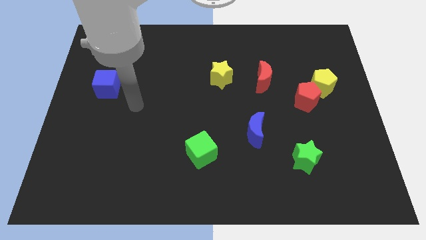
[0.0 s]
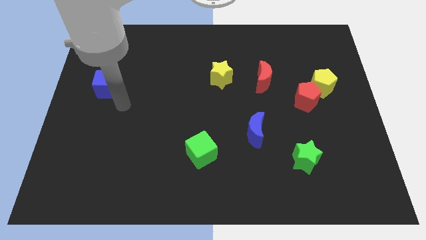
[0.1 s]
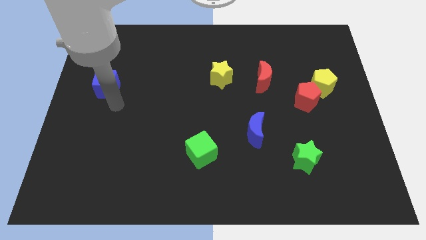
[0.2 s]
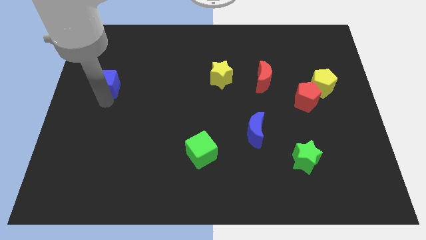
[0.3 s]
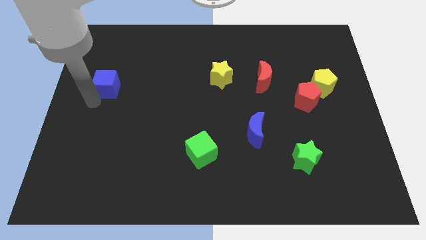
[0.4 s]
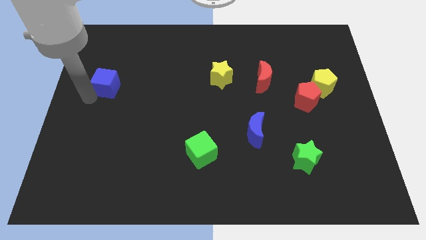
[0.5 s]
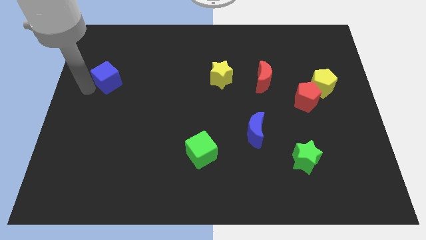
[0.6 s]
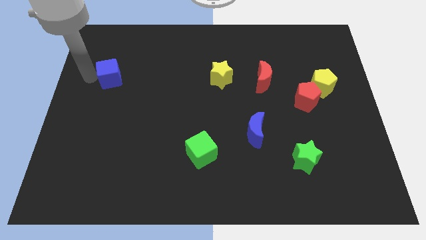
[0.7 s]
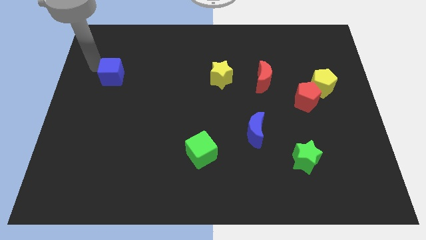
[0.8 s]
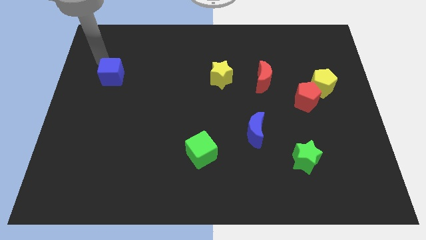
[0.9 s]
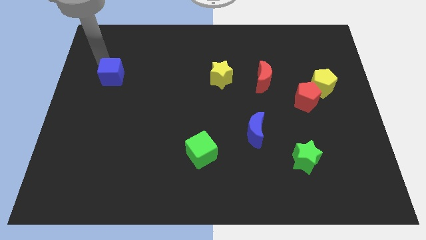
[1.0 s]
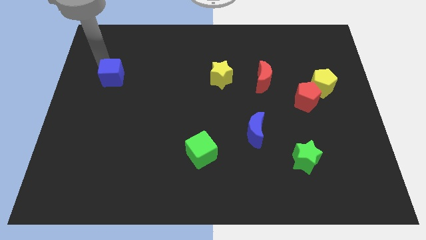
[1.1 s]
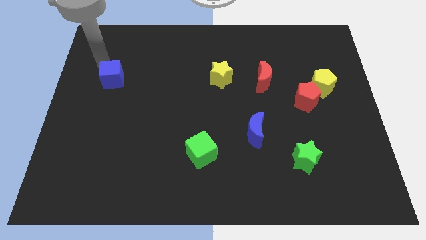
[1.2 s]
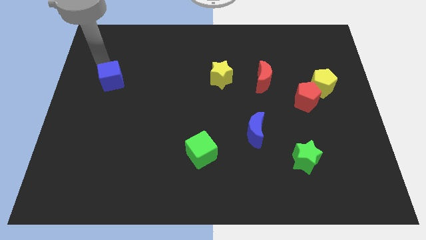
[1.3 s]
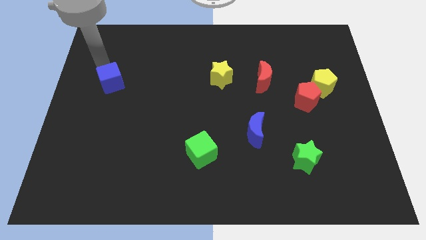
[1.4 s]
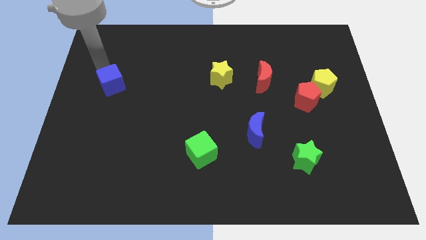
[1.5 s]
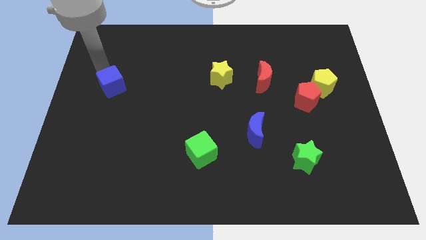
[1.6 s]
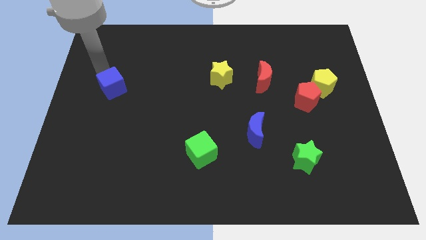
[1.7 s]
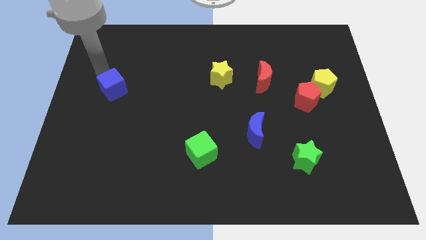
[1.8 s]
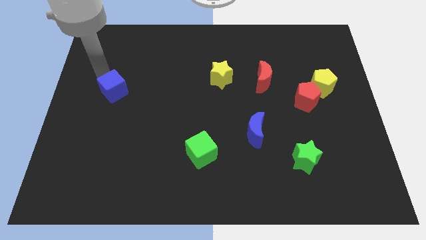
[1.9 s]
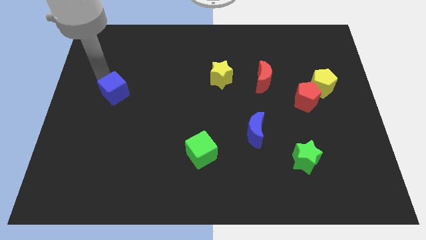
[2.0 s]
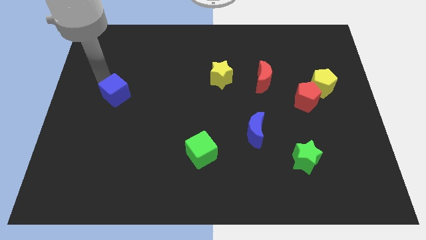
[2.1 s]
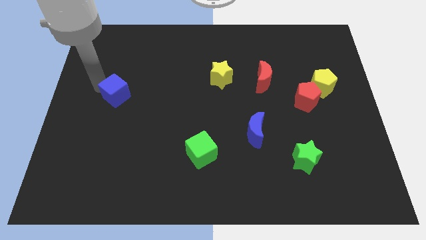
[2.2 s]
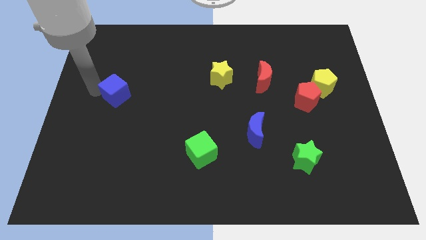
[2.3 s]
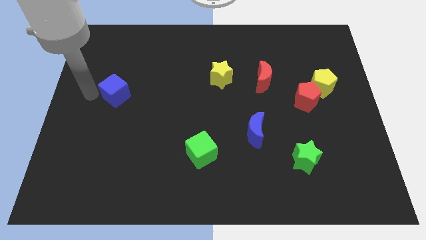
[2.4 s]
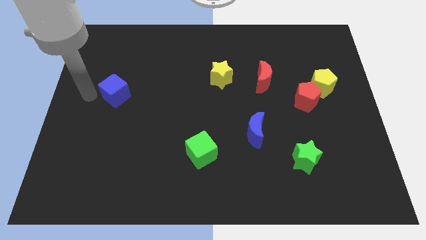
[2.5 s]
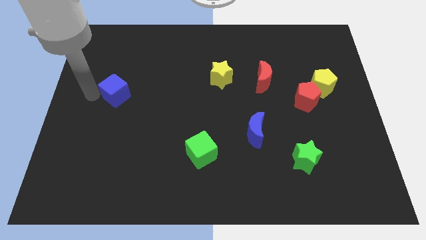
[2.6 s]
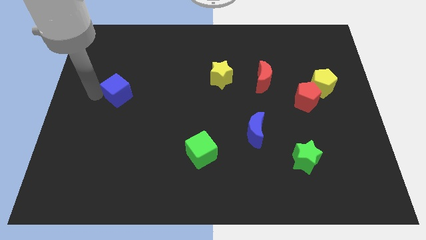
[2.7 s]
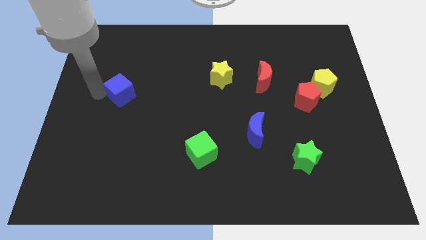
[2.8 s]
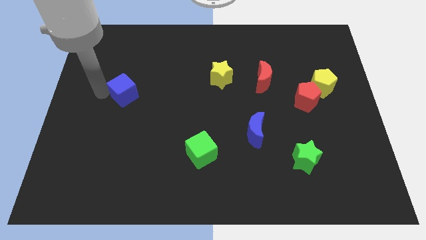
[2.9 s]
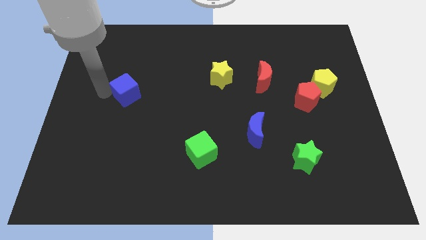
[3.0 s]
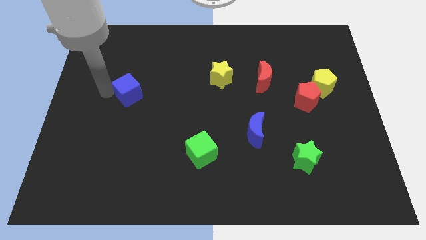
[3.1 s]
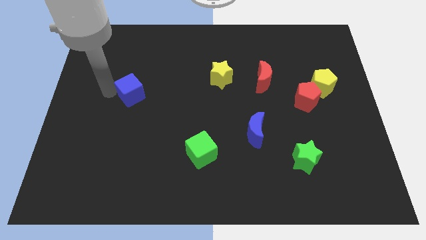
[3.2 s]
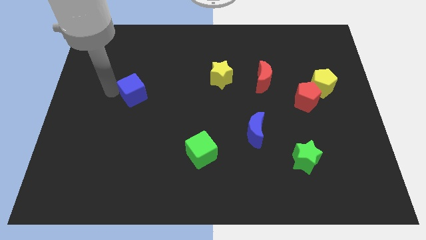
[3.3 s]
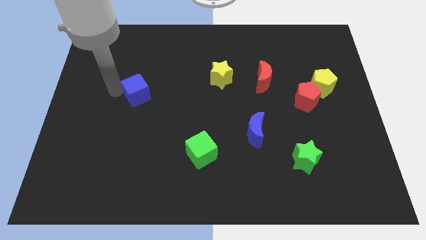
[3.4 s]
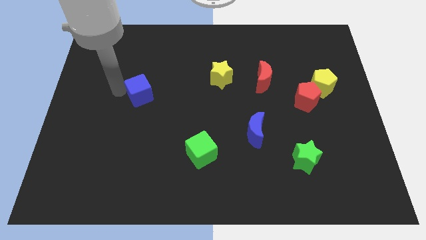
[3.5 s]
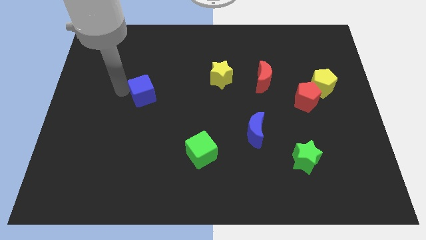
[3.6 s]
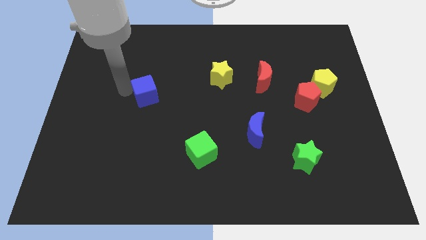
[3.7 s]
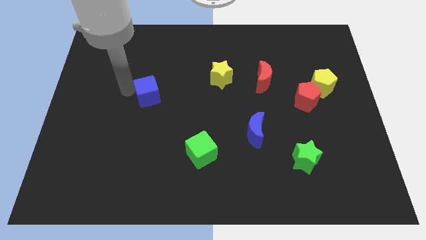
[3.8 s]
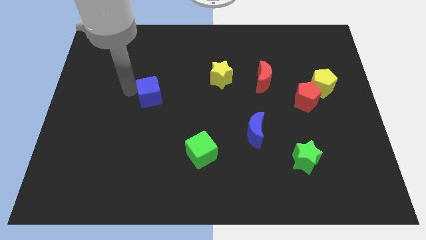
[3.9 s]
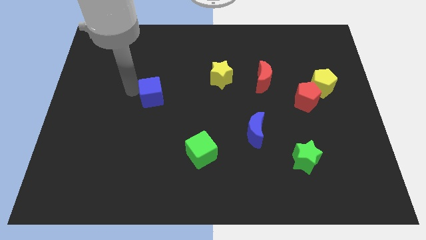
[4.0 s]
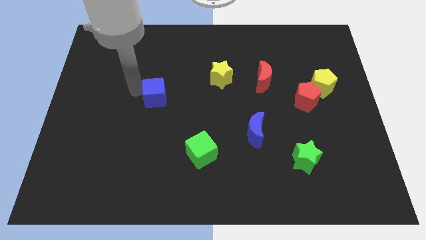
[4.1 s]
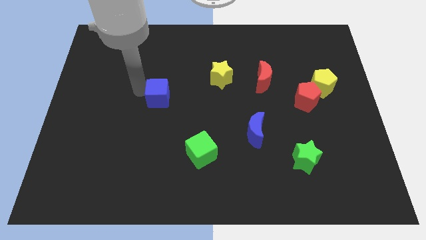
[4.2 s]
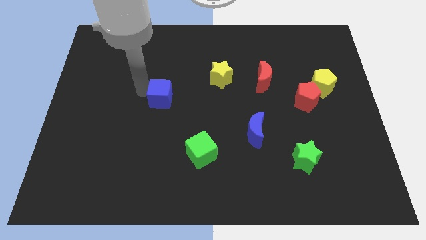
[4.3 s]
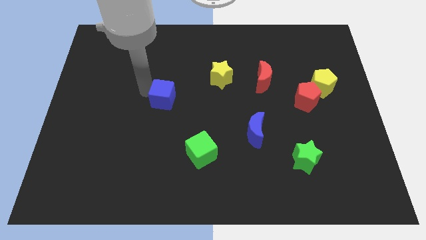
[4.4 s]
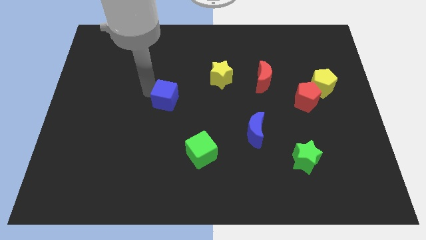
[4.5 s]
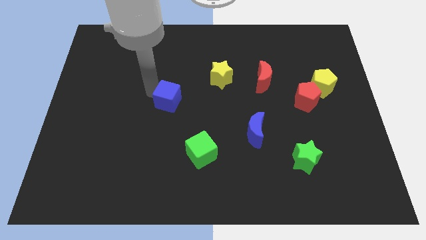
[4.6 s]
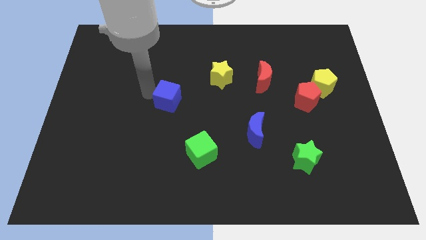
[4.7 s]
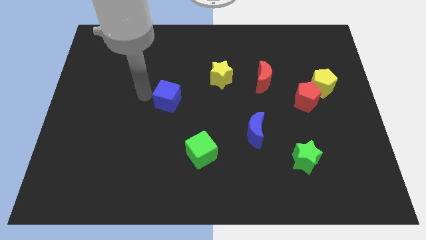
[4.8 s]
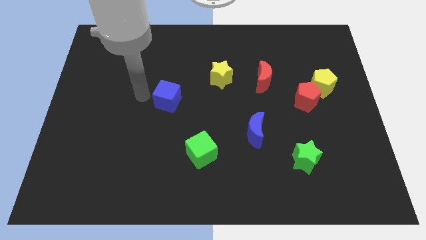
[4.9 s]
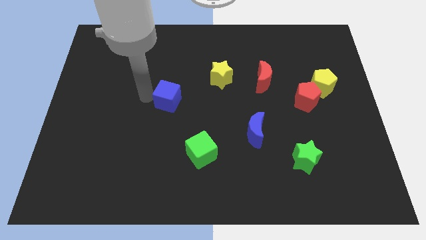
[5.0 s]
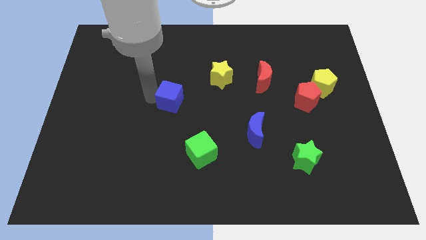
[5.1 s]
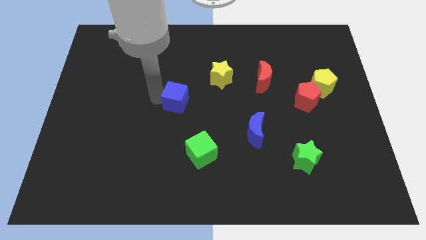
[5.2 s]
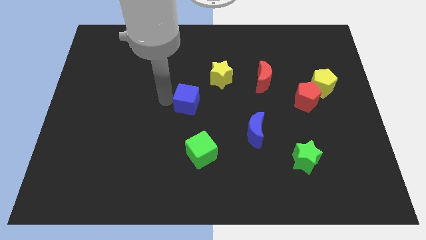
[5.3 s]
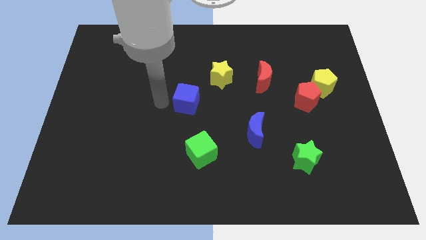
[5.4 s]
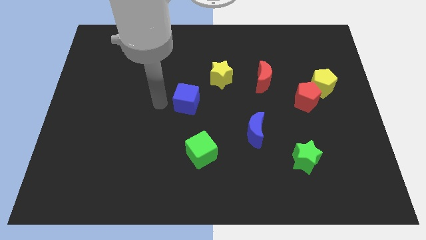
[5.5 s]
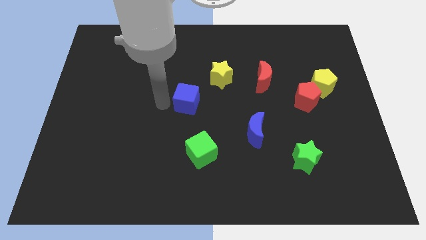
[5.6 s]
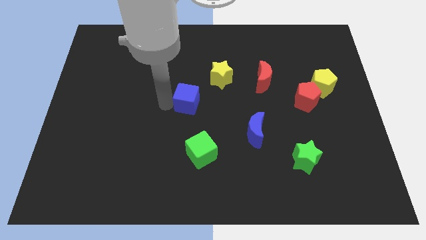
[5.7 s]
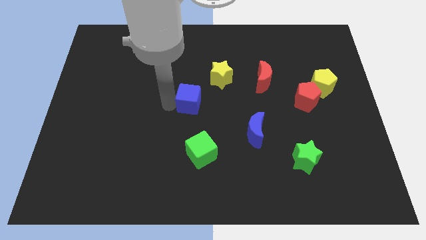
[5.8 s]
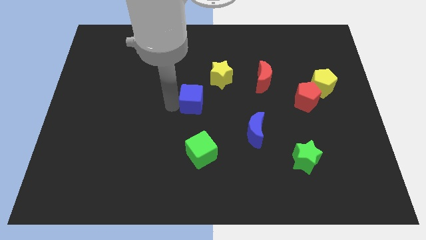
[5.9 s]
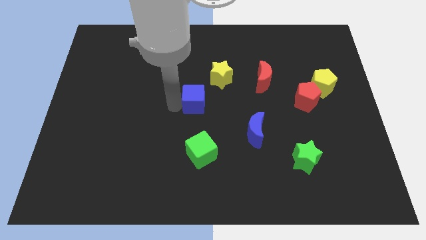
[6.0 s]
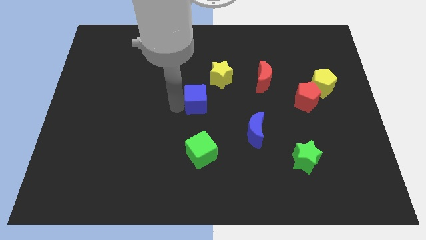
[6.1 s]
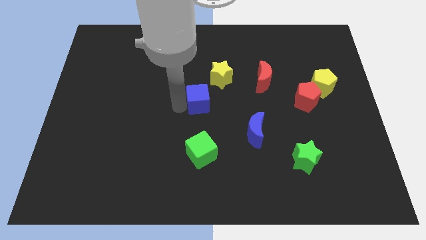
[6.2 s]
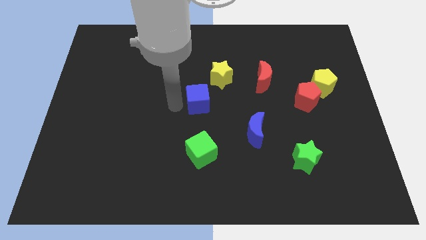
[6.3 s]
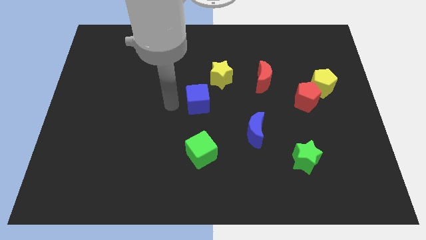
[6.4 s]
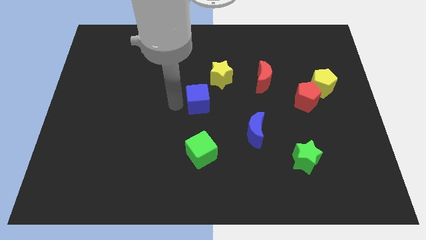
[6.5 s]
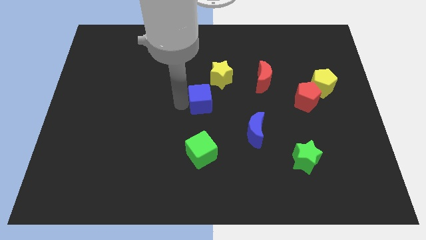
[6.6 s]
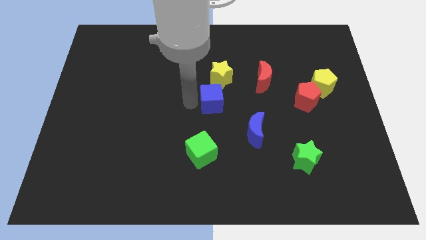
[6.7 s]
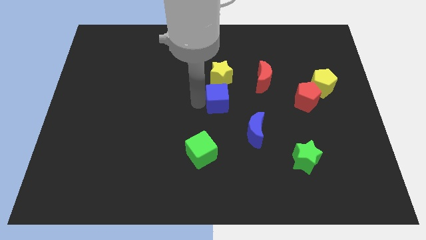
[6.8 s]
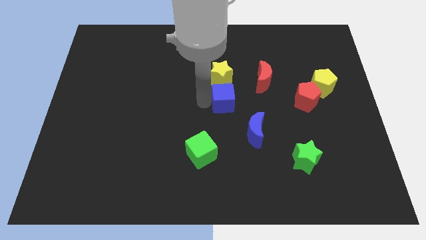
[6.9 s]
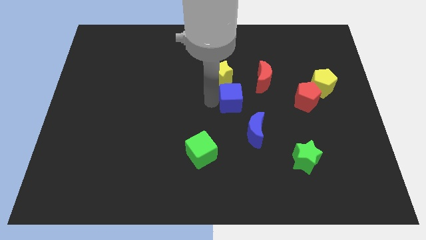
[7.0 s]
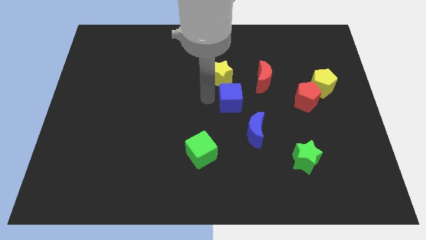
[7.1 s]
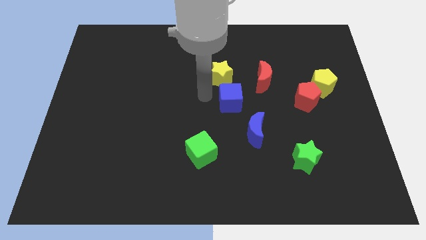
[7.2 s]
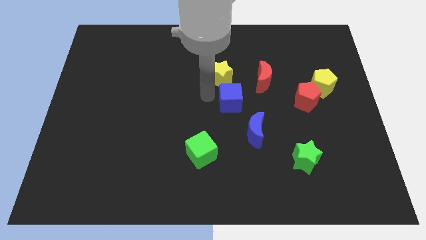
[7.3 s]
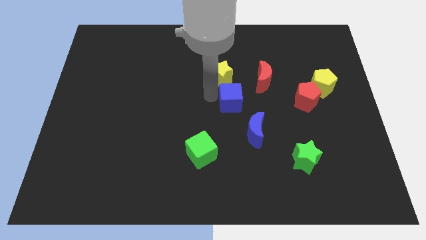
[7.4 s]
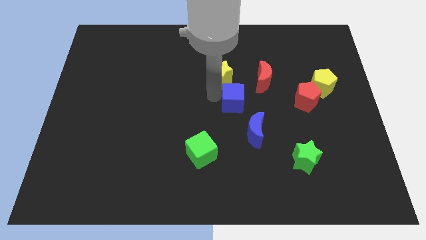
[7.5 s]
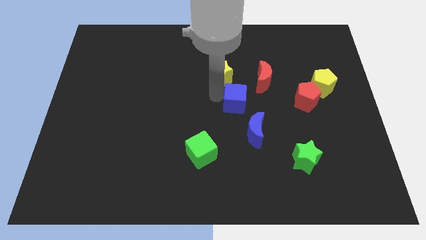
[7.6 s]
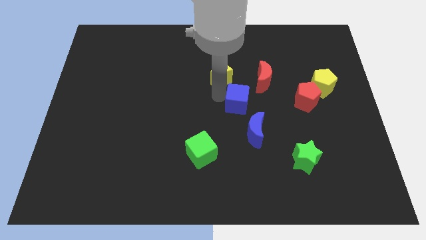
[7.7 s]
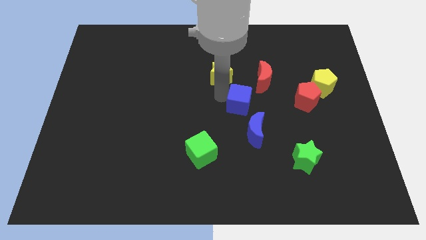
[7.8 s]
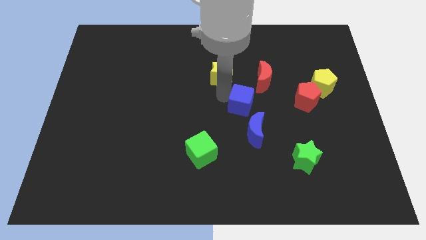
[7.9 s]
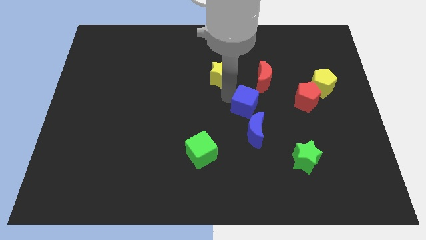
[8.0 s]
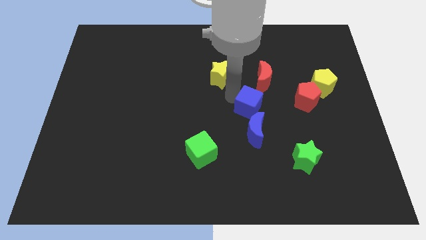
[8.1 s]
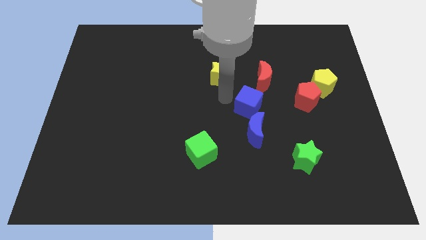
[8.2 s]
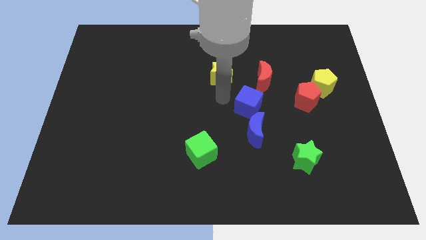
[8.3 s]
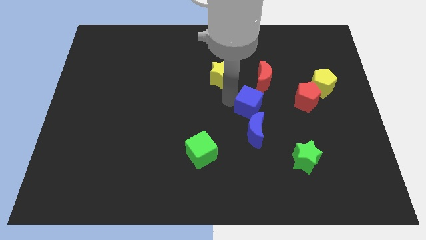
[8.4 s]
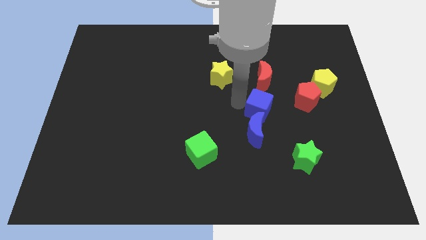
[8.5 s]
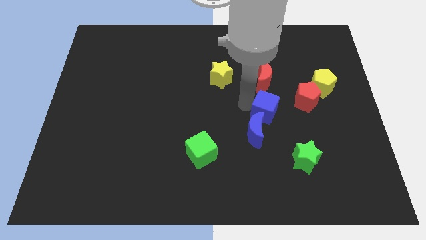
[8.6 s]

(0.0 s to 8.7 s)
slide the blue cube to the bottom left side of the red pentagon
